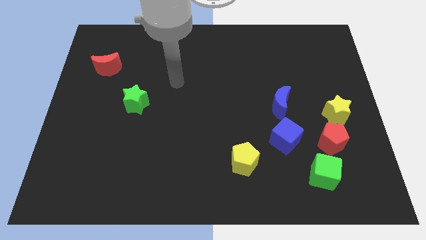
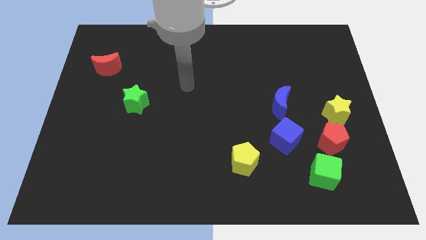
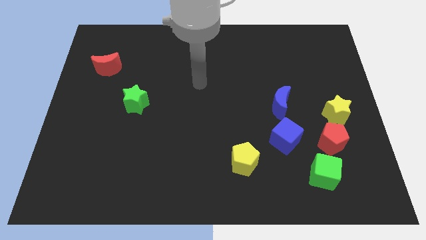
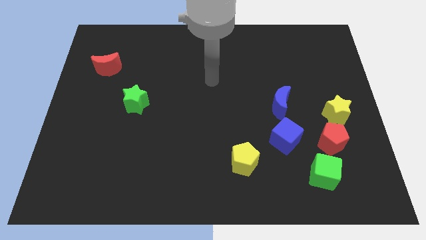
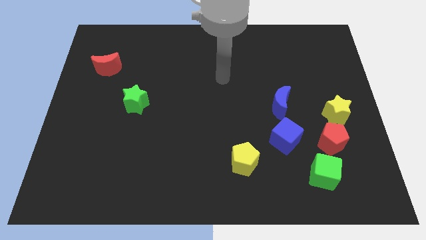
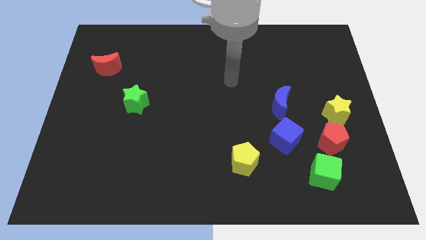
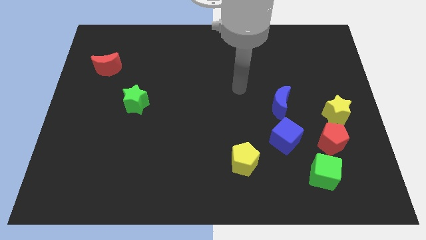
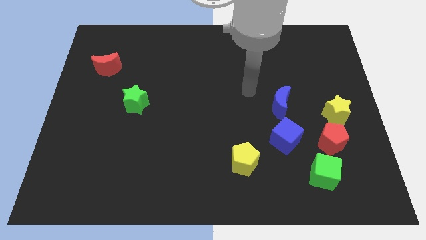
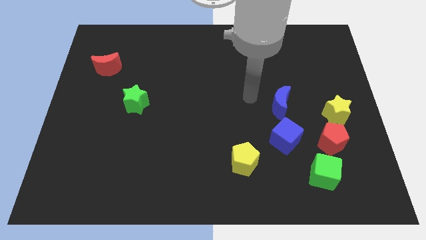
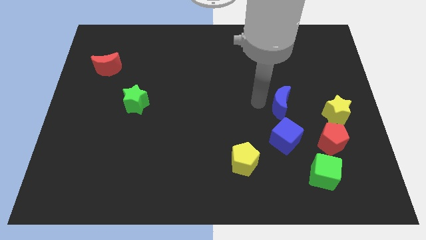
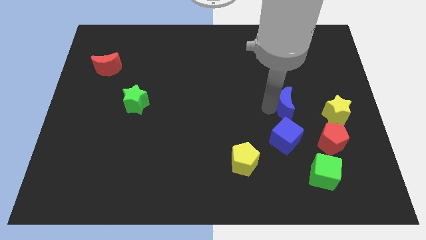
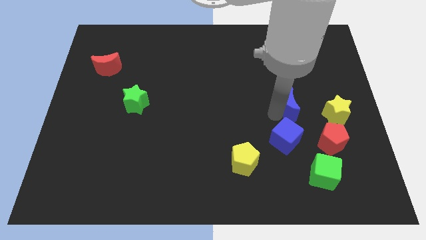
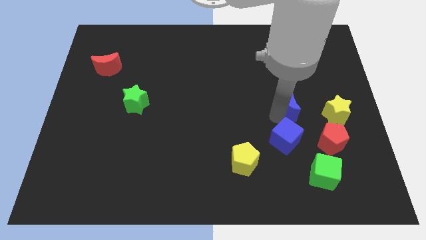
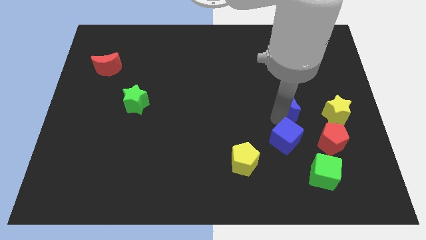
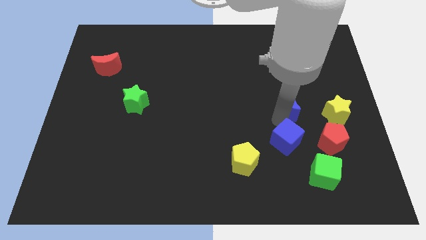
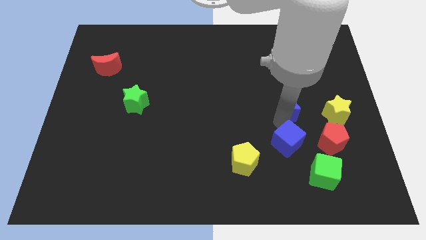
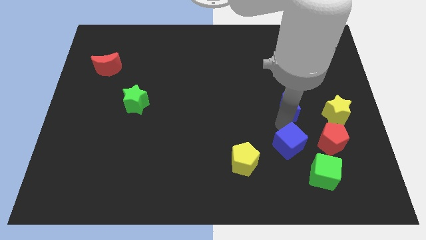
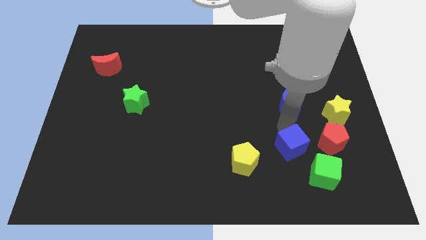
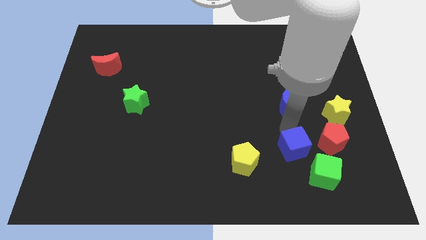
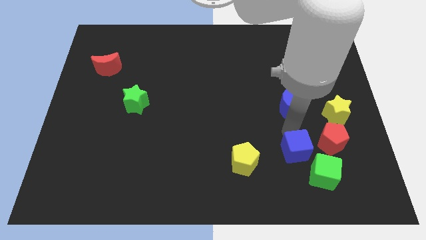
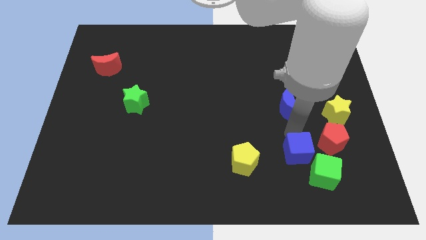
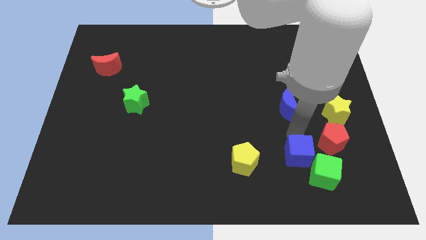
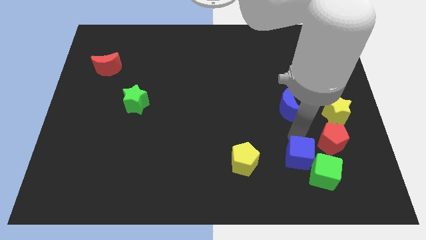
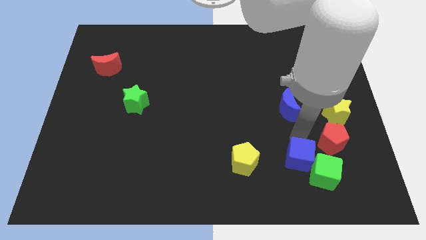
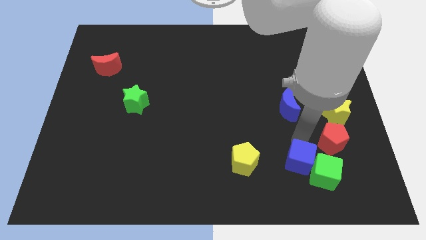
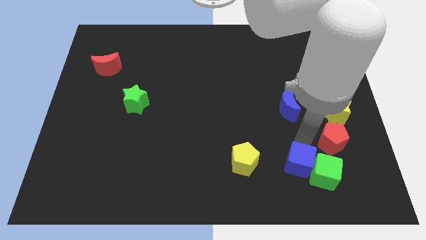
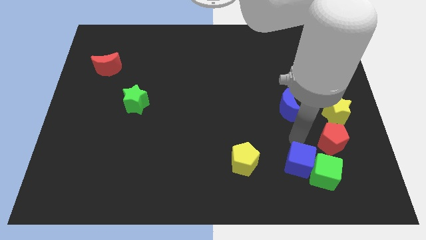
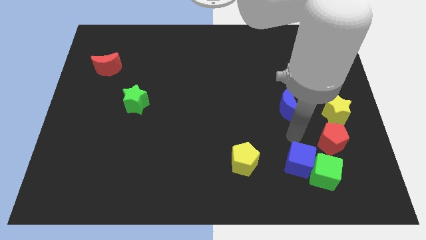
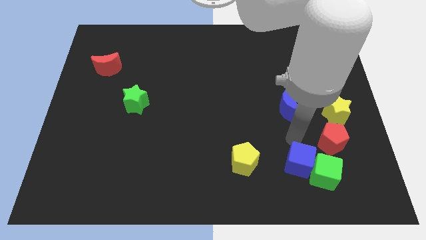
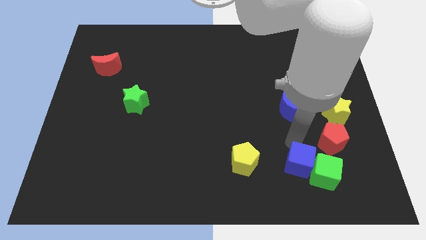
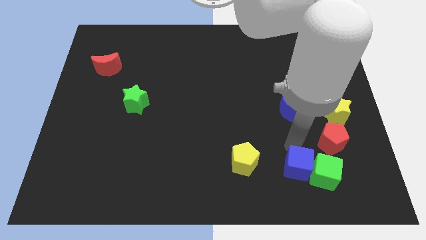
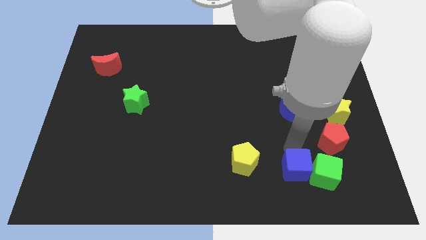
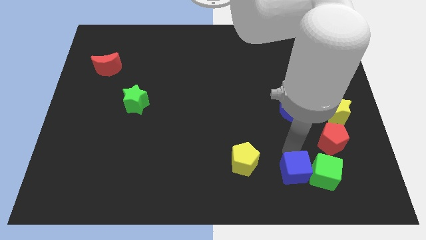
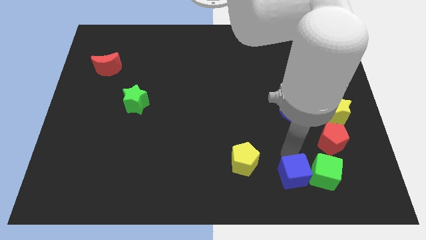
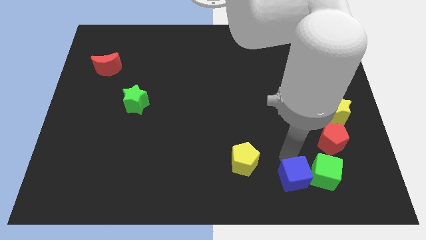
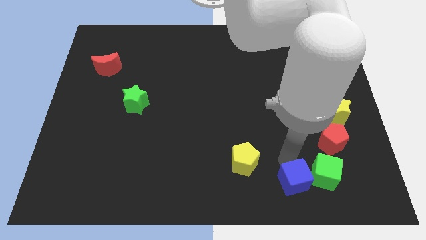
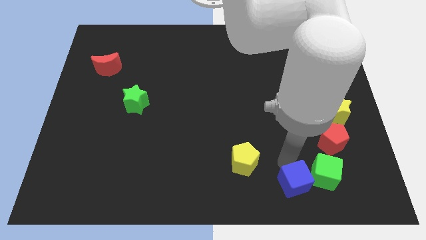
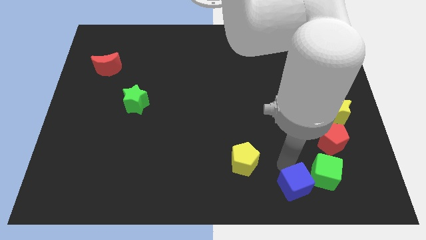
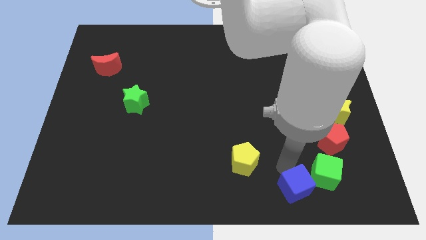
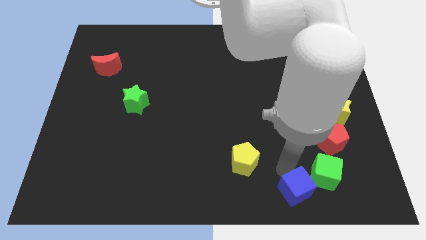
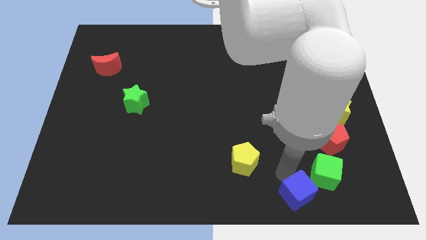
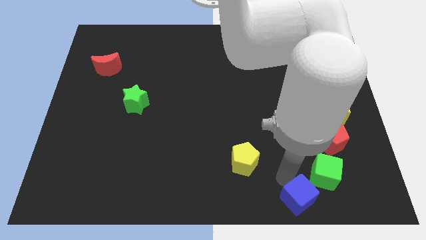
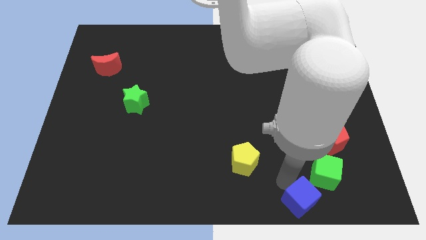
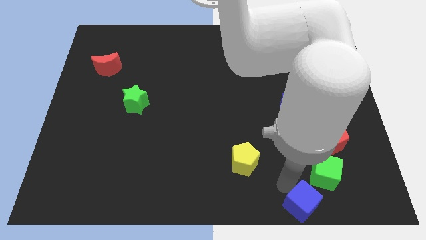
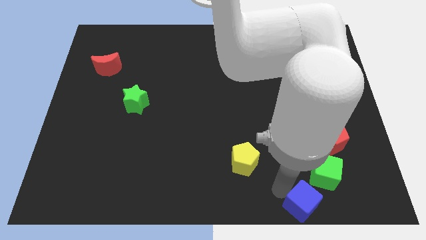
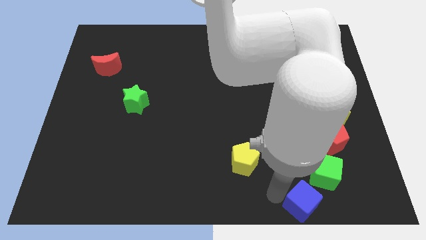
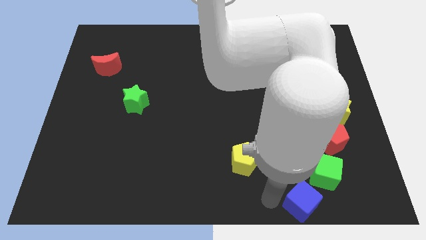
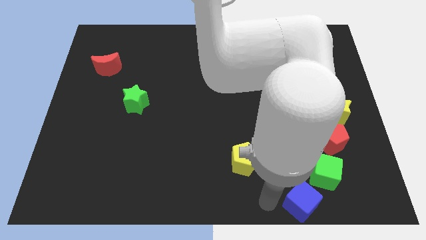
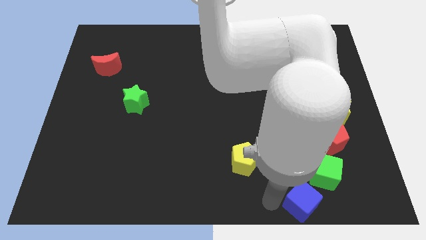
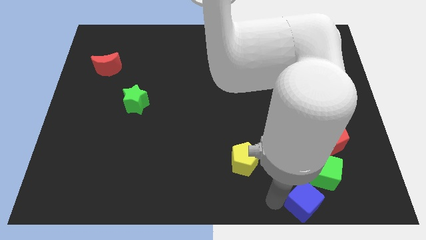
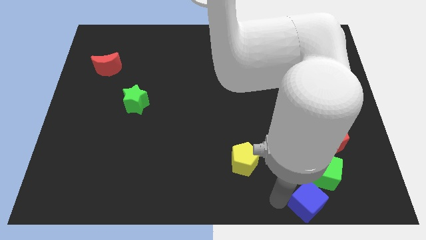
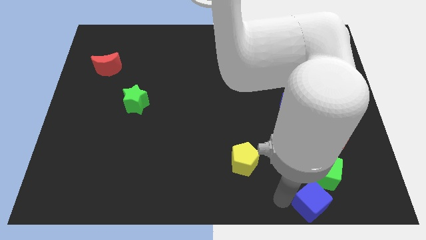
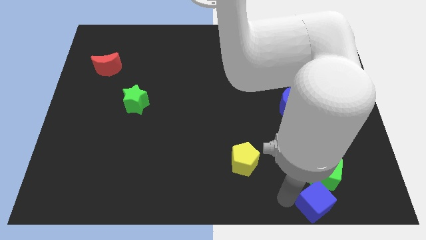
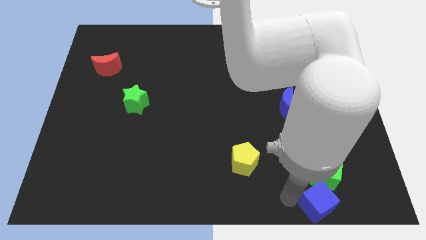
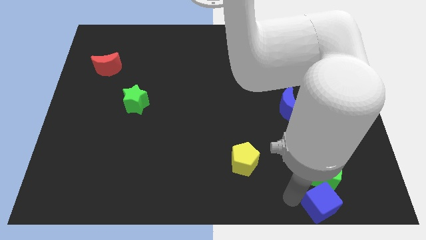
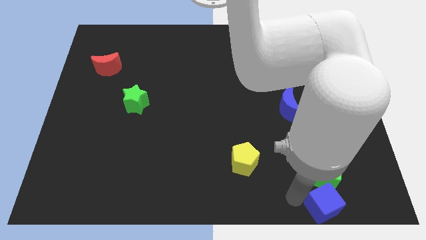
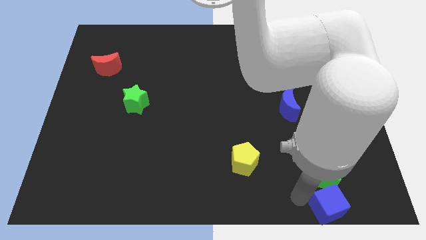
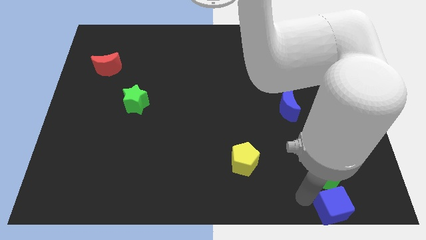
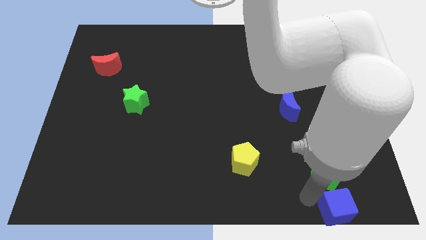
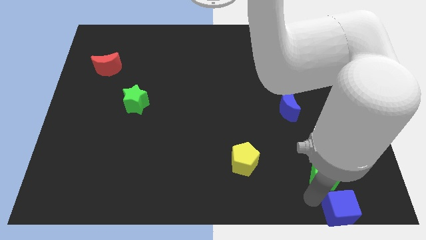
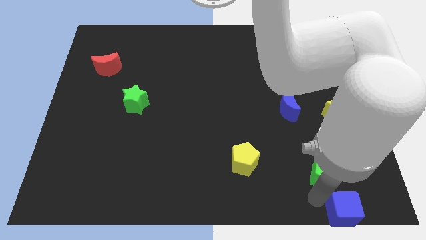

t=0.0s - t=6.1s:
push the blue cube to the bottom right of the board
